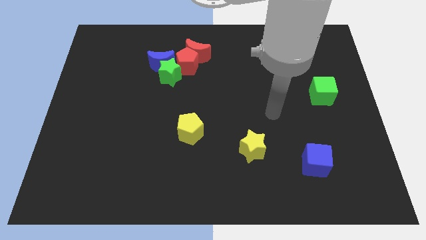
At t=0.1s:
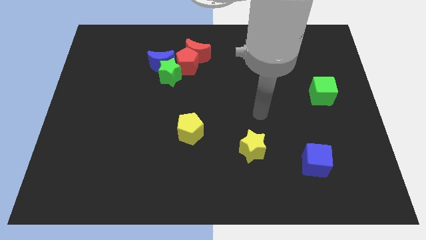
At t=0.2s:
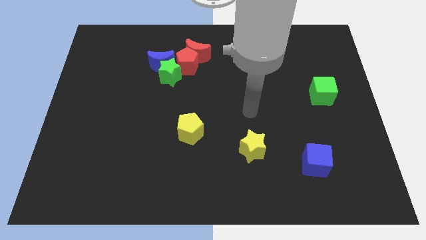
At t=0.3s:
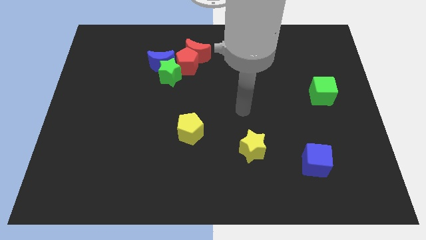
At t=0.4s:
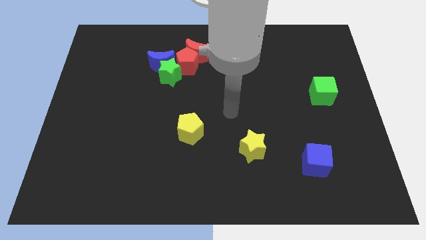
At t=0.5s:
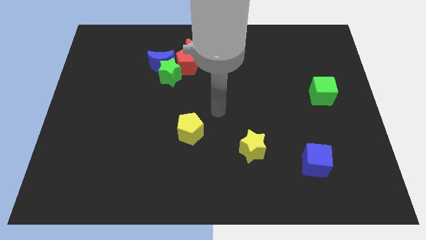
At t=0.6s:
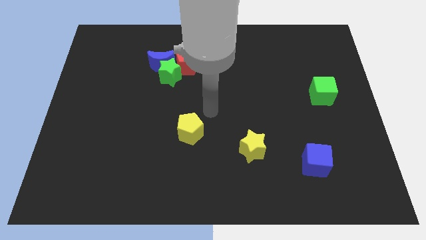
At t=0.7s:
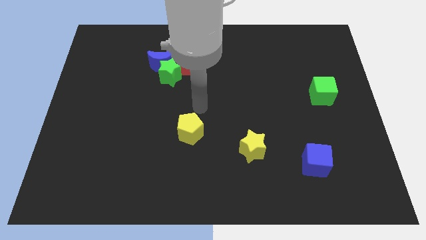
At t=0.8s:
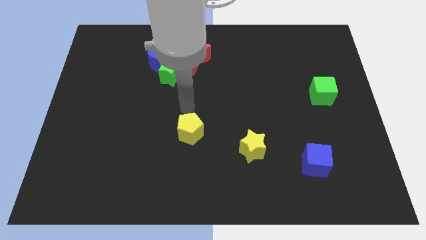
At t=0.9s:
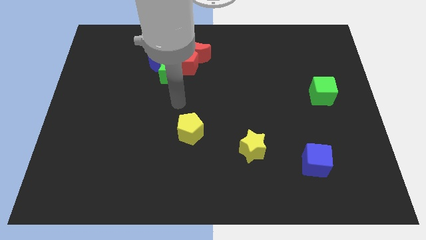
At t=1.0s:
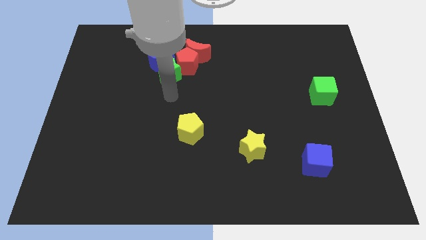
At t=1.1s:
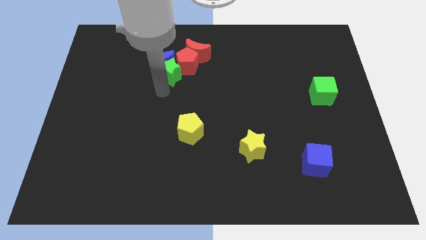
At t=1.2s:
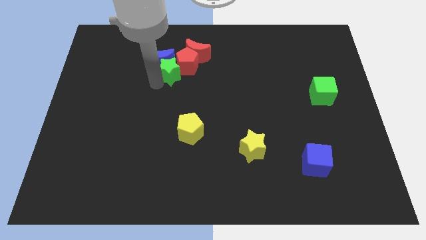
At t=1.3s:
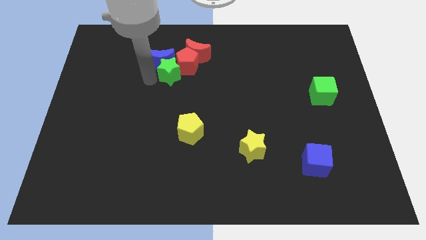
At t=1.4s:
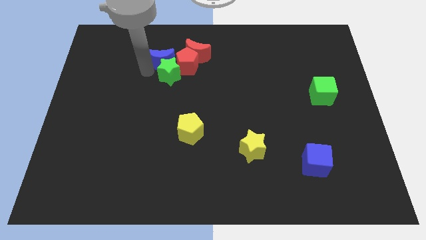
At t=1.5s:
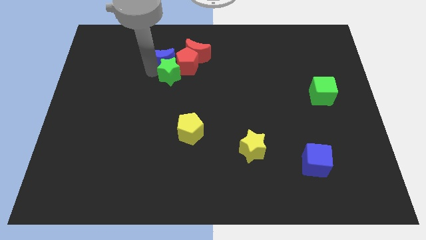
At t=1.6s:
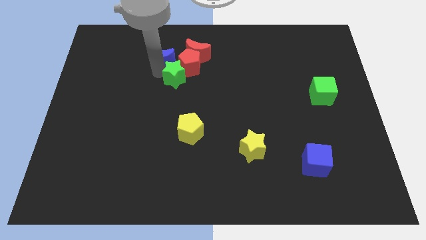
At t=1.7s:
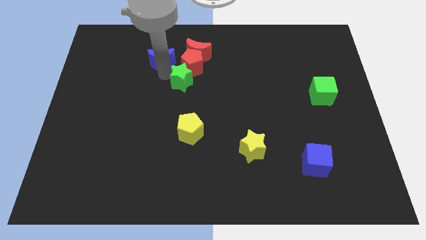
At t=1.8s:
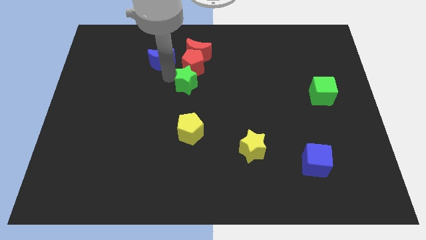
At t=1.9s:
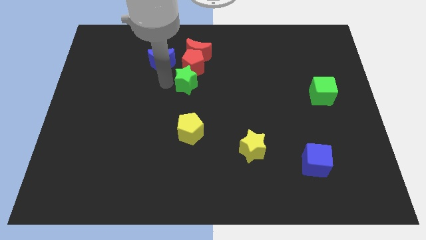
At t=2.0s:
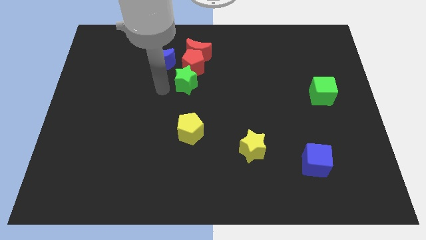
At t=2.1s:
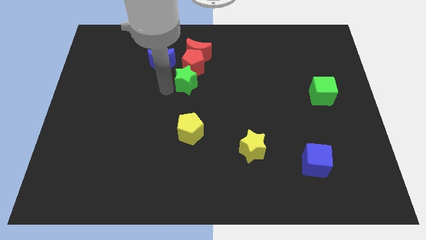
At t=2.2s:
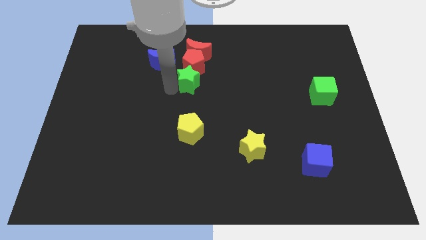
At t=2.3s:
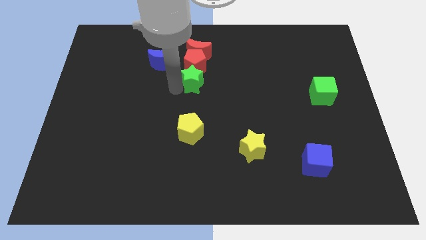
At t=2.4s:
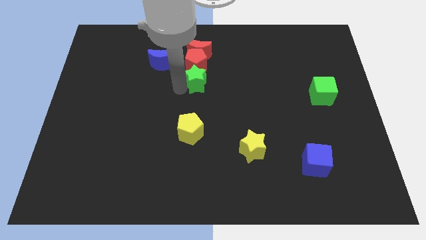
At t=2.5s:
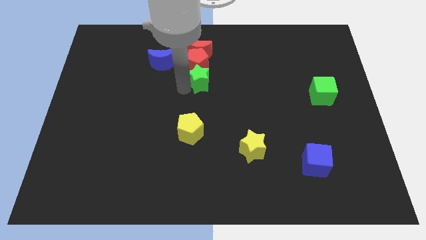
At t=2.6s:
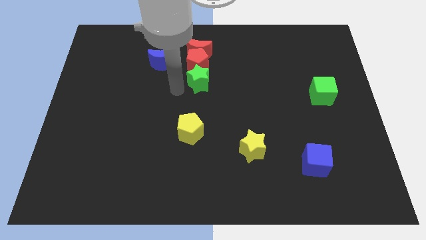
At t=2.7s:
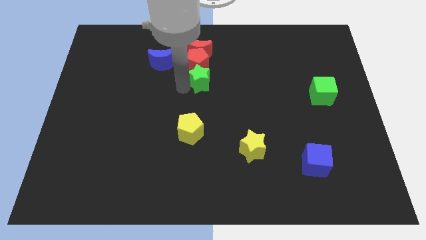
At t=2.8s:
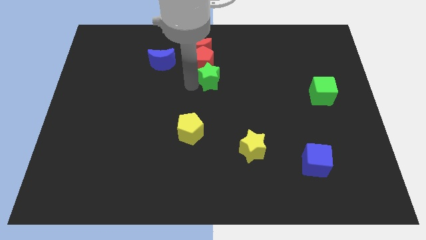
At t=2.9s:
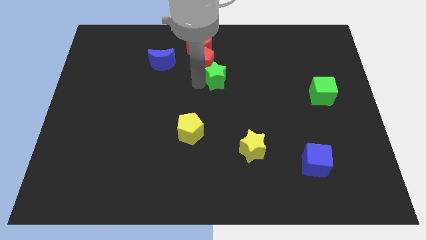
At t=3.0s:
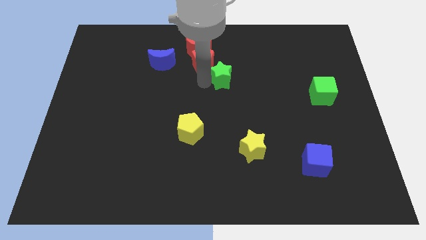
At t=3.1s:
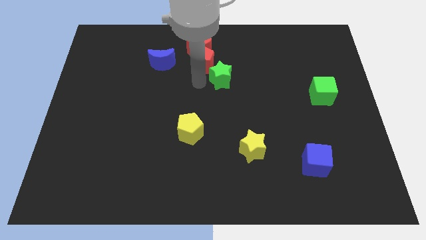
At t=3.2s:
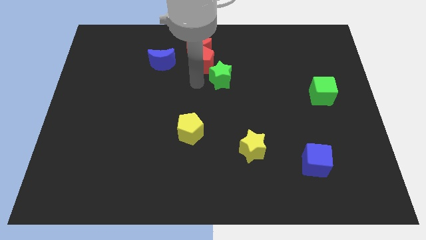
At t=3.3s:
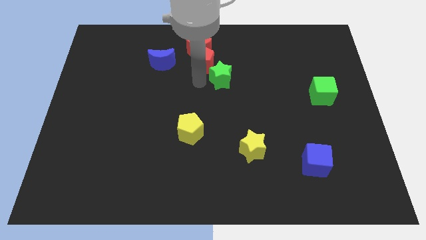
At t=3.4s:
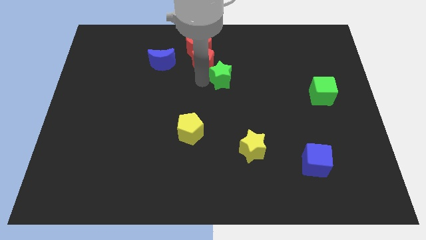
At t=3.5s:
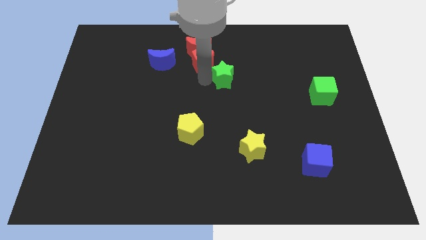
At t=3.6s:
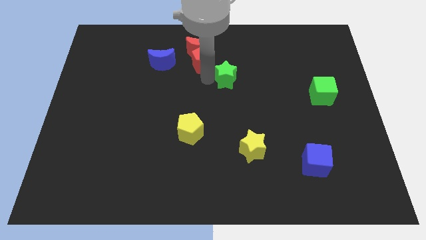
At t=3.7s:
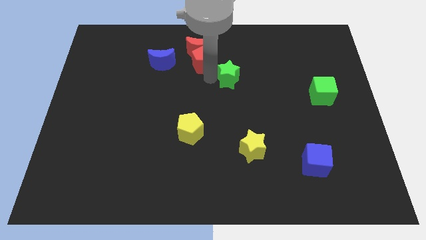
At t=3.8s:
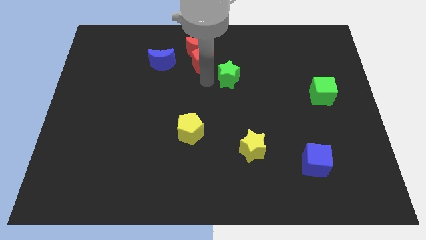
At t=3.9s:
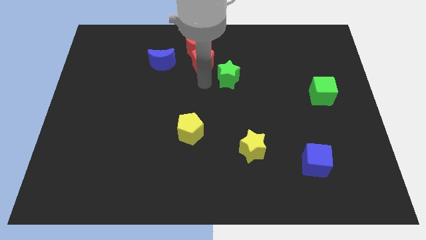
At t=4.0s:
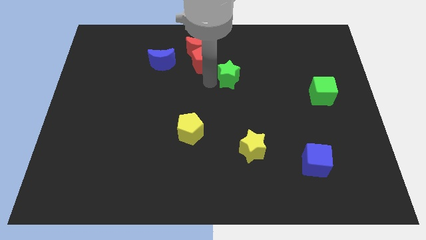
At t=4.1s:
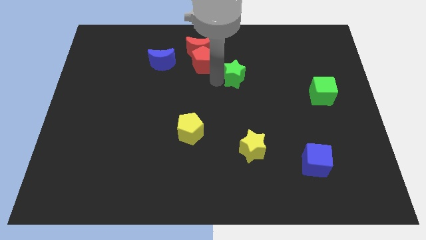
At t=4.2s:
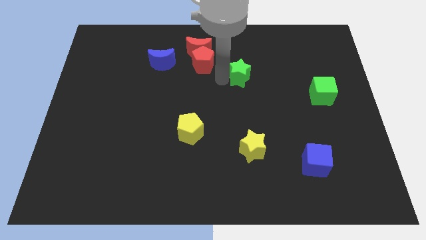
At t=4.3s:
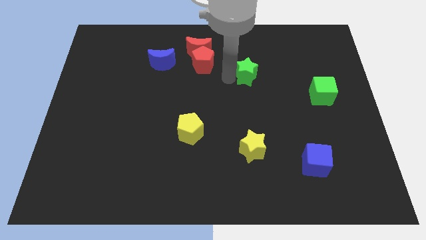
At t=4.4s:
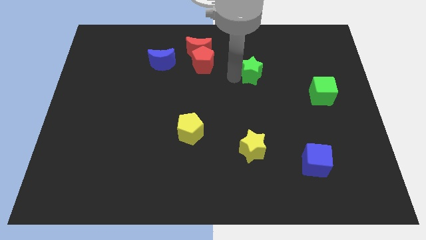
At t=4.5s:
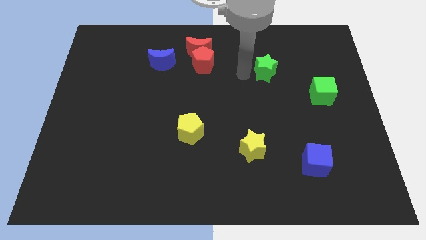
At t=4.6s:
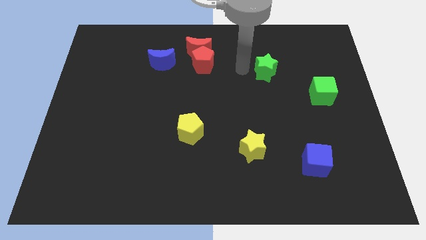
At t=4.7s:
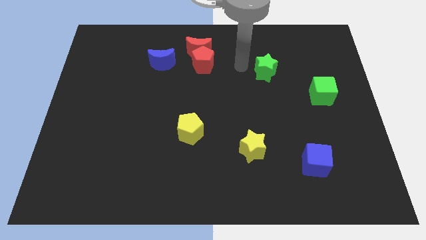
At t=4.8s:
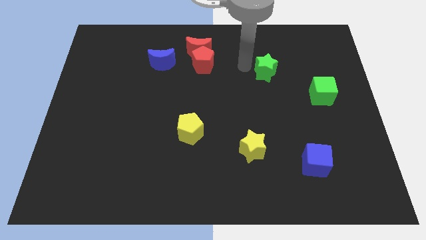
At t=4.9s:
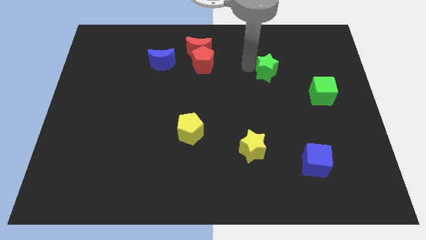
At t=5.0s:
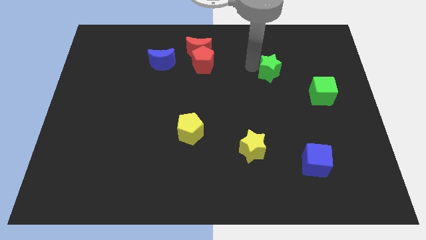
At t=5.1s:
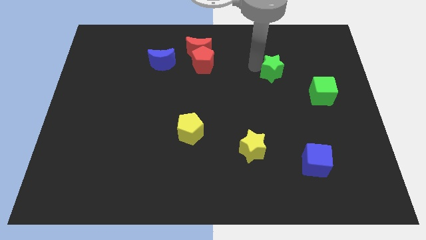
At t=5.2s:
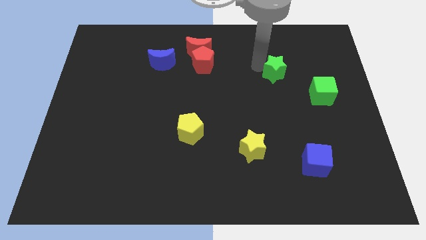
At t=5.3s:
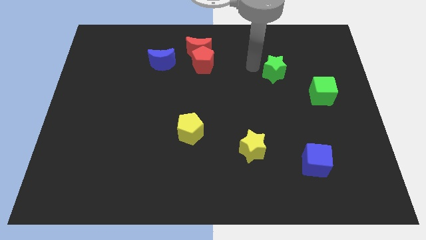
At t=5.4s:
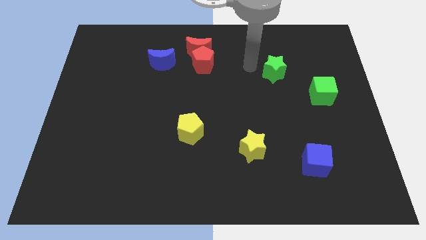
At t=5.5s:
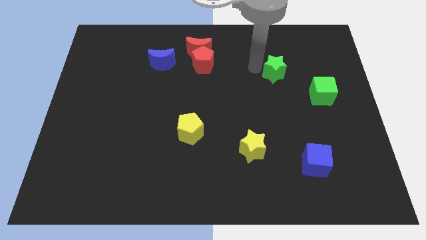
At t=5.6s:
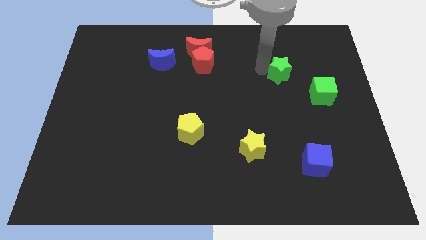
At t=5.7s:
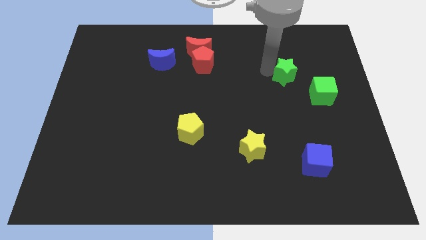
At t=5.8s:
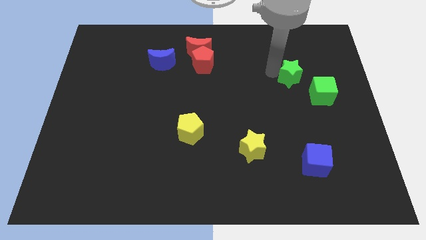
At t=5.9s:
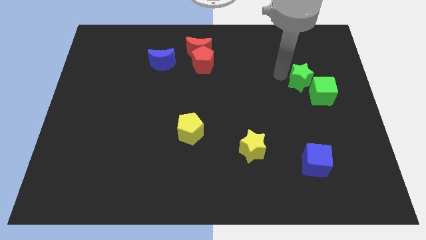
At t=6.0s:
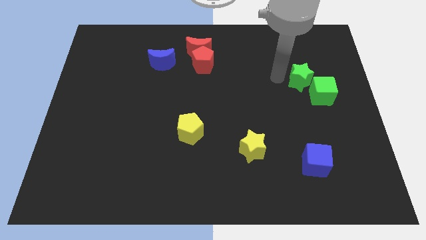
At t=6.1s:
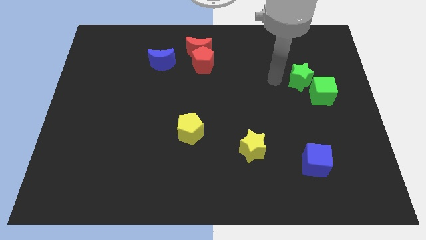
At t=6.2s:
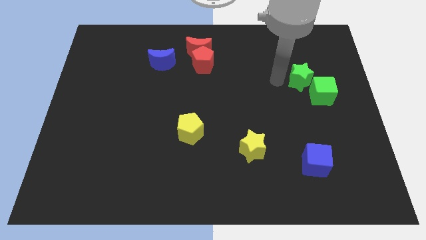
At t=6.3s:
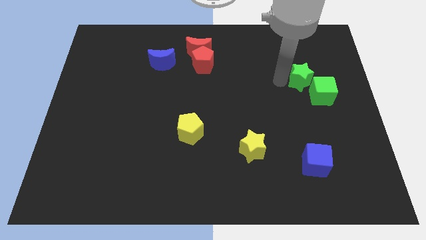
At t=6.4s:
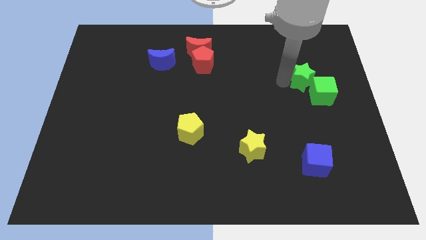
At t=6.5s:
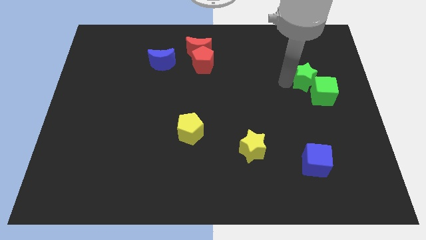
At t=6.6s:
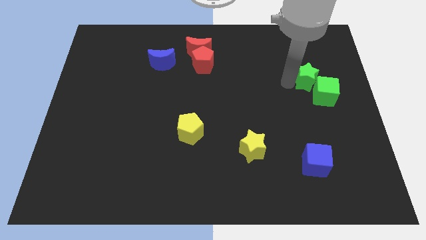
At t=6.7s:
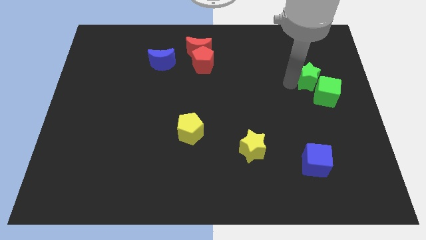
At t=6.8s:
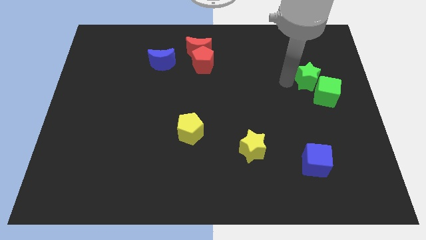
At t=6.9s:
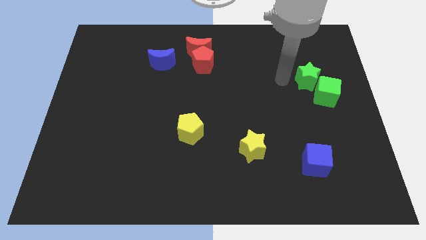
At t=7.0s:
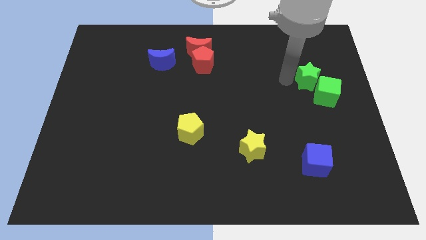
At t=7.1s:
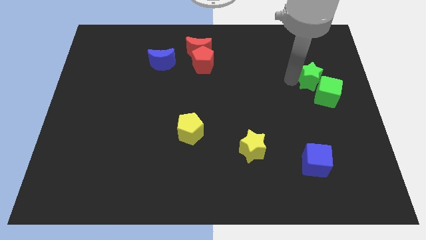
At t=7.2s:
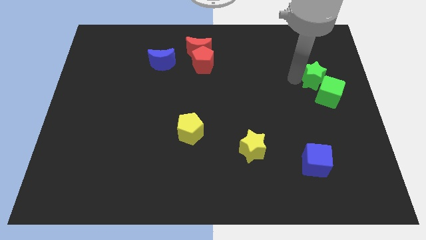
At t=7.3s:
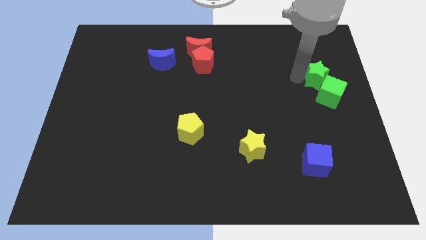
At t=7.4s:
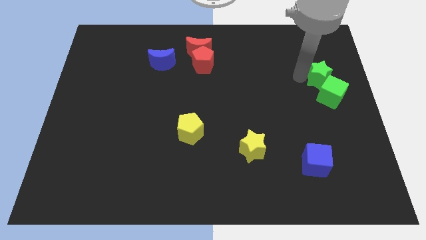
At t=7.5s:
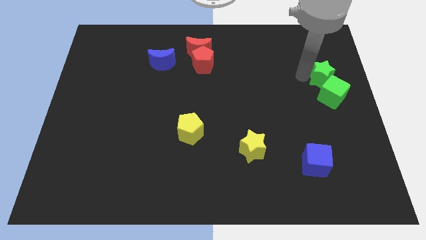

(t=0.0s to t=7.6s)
push the green star to the right side
